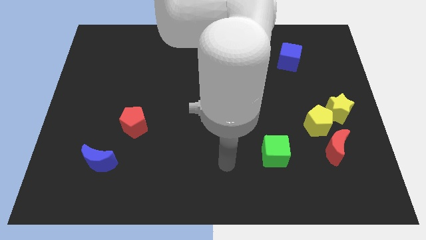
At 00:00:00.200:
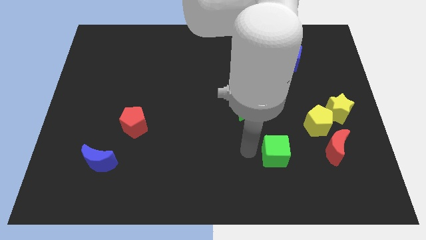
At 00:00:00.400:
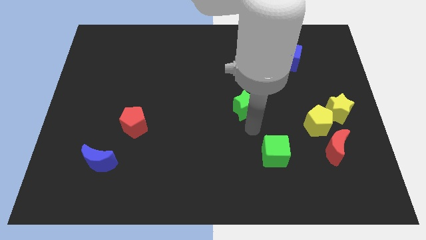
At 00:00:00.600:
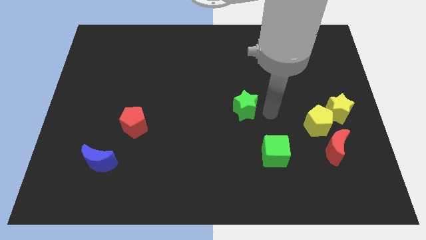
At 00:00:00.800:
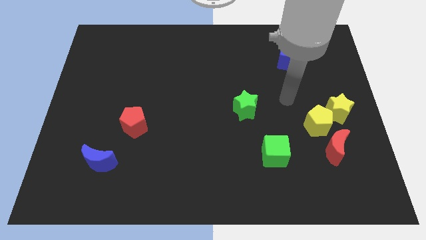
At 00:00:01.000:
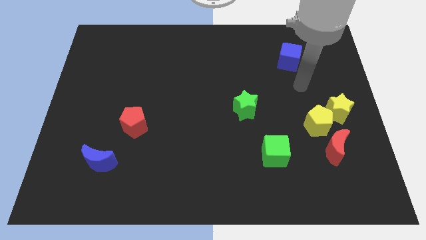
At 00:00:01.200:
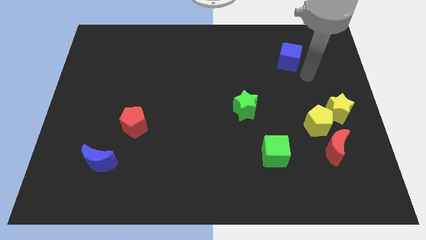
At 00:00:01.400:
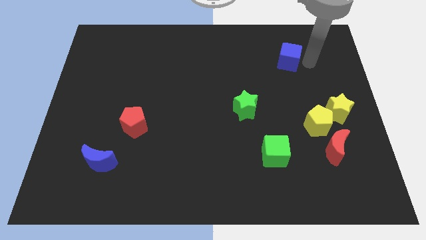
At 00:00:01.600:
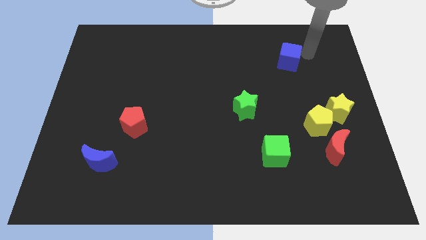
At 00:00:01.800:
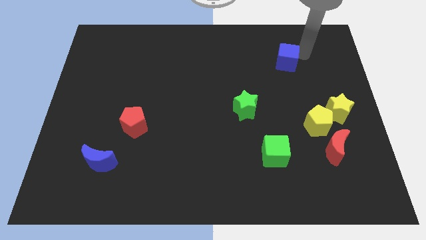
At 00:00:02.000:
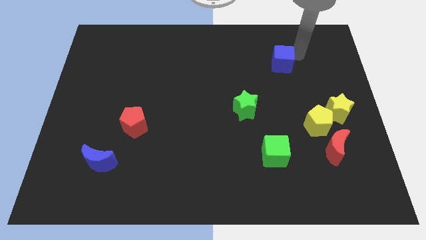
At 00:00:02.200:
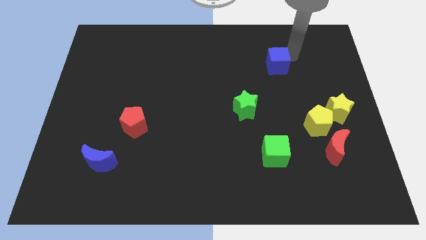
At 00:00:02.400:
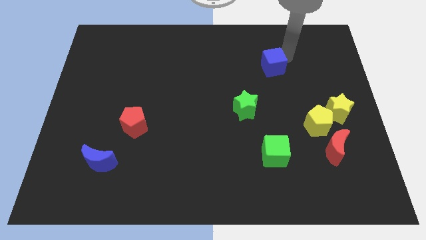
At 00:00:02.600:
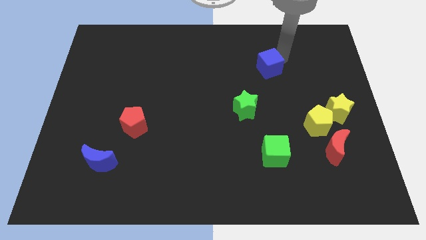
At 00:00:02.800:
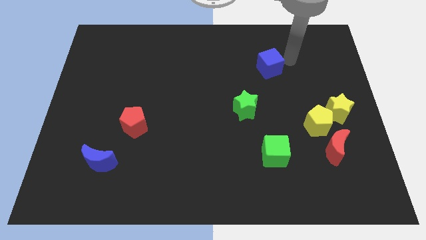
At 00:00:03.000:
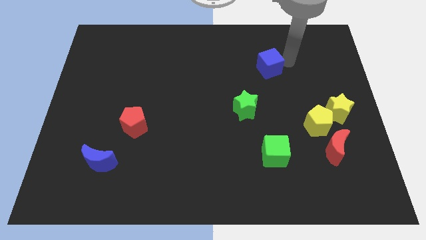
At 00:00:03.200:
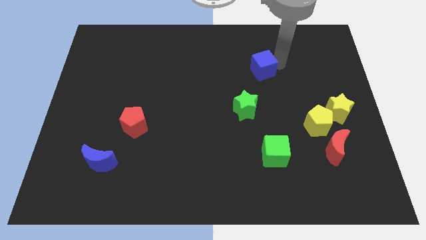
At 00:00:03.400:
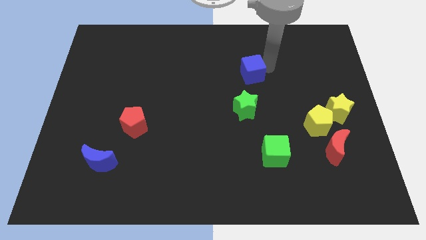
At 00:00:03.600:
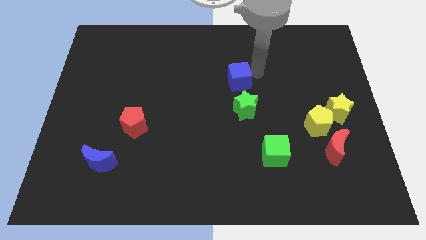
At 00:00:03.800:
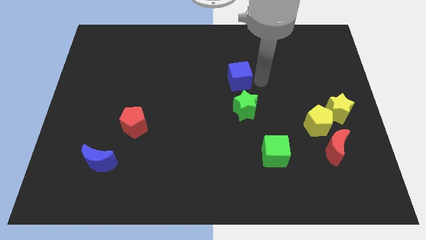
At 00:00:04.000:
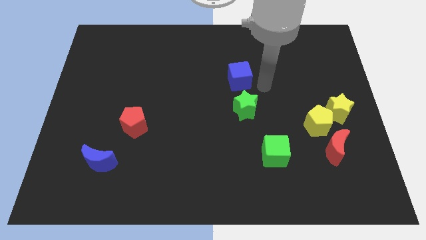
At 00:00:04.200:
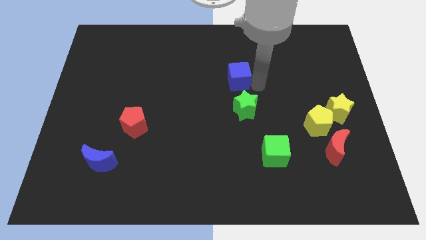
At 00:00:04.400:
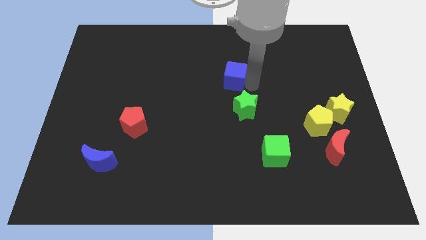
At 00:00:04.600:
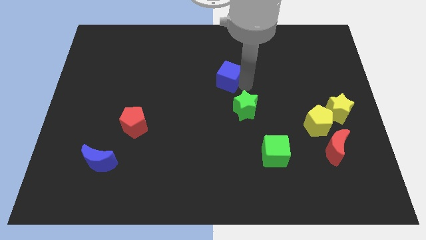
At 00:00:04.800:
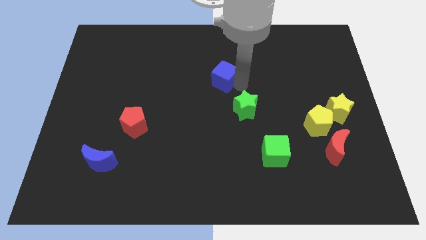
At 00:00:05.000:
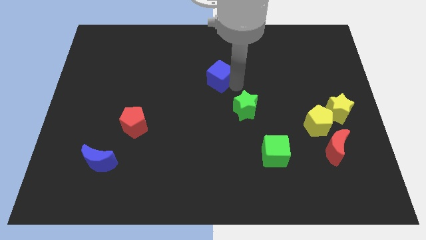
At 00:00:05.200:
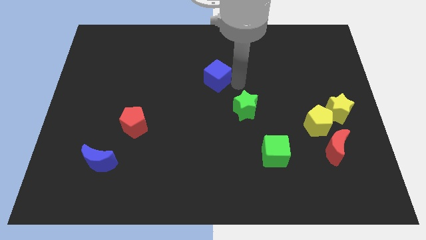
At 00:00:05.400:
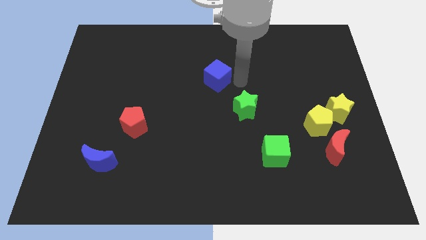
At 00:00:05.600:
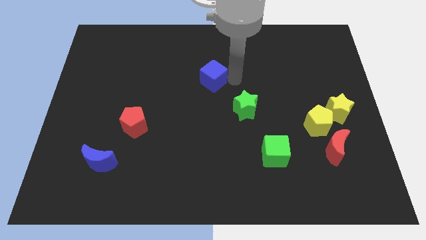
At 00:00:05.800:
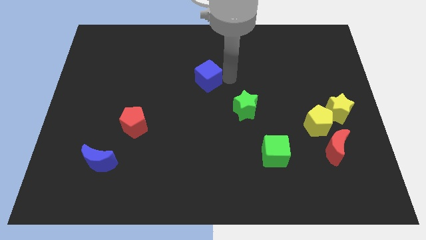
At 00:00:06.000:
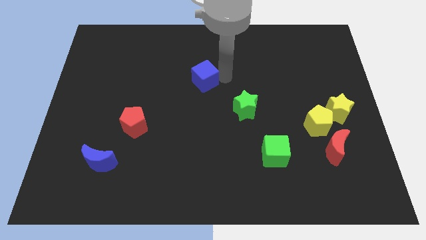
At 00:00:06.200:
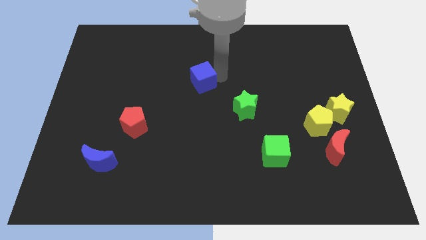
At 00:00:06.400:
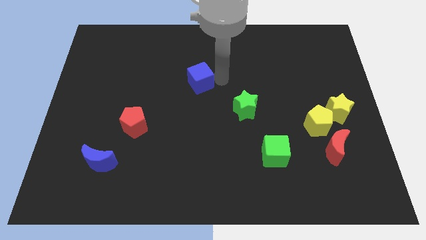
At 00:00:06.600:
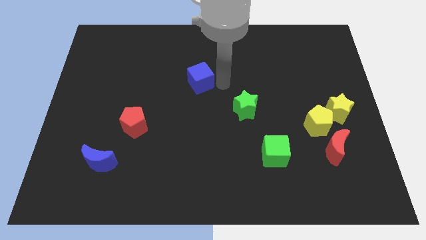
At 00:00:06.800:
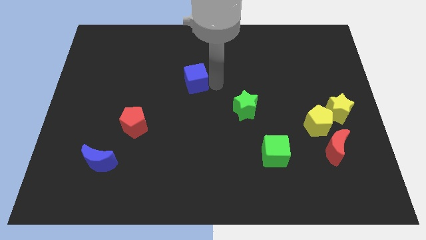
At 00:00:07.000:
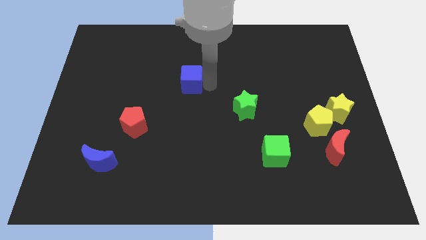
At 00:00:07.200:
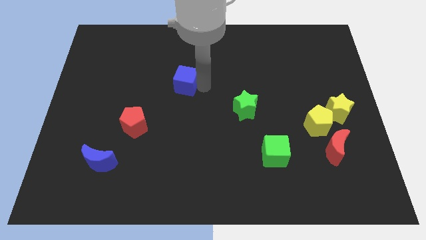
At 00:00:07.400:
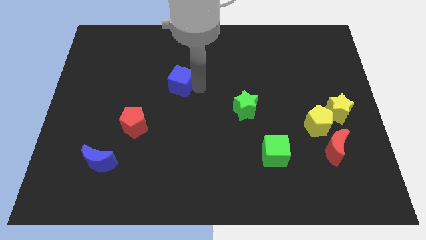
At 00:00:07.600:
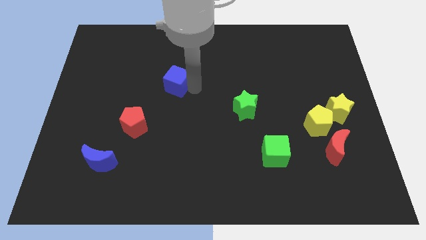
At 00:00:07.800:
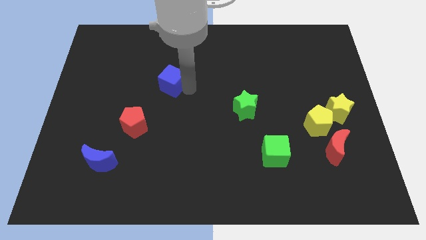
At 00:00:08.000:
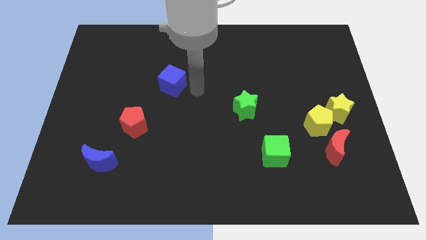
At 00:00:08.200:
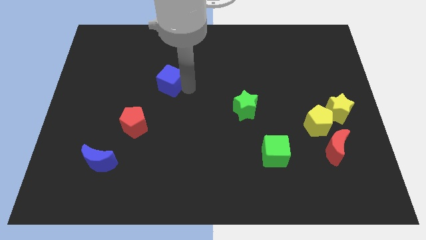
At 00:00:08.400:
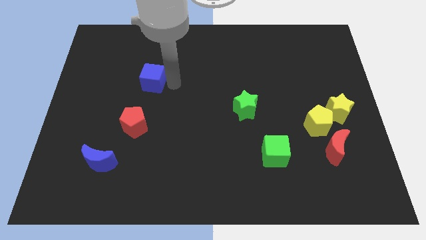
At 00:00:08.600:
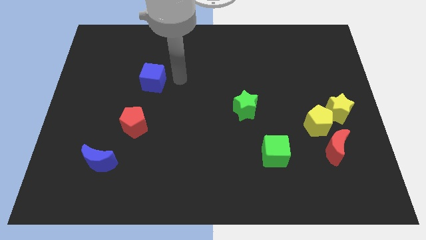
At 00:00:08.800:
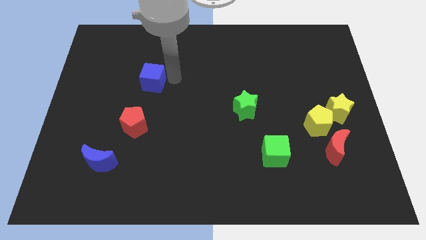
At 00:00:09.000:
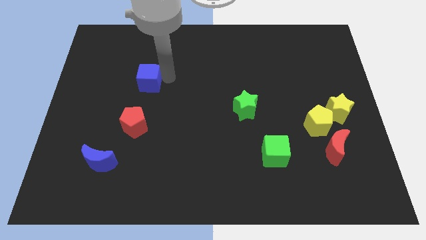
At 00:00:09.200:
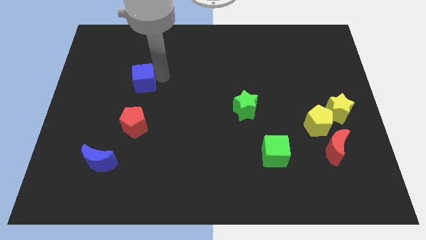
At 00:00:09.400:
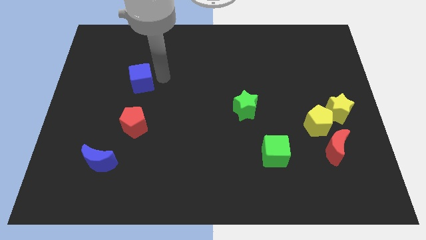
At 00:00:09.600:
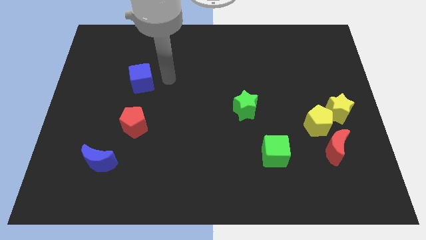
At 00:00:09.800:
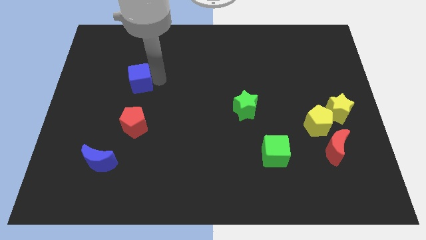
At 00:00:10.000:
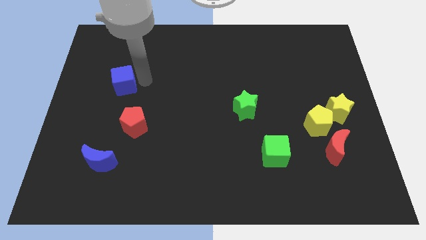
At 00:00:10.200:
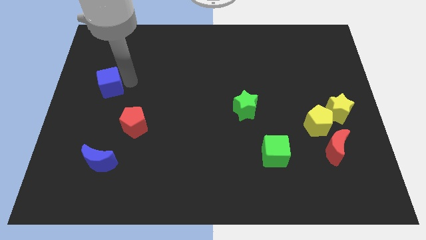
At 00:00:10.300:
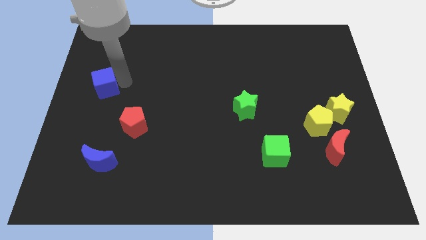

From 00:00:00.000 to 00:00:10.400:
put the blue cube to the left side of the board

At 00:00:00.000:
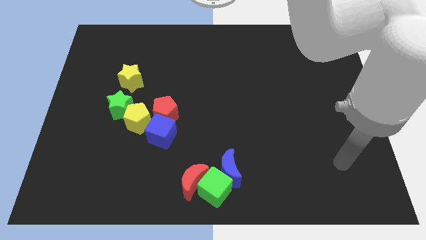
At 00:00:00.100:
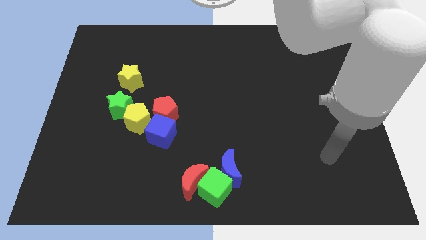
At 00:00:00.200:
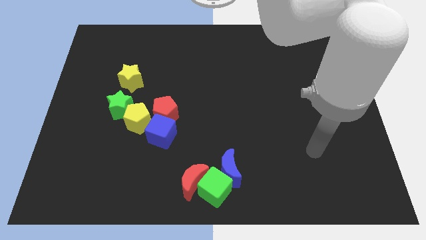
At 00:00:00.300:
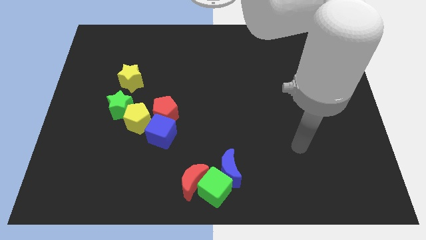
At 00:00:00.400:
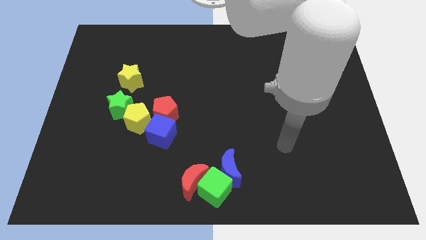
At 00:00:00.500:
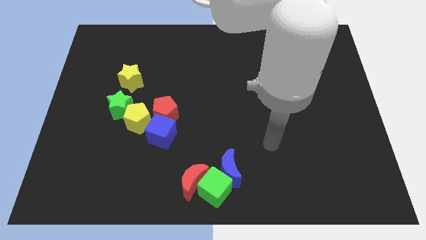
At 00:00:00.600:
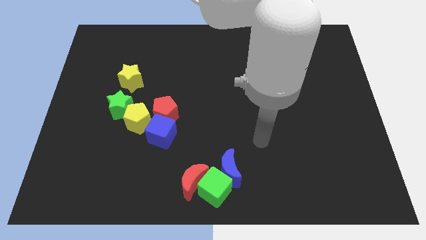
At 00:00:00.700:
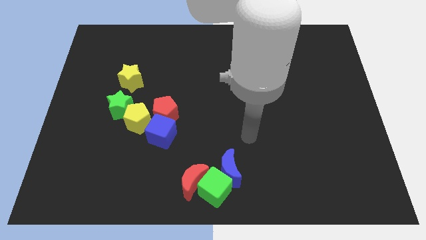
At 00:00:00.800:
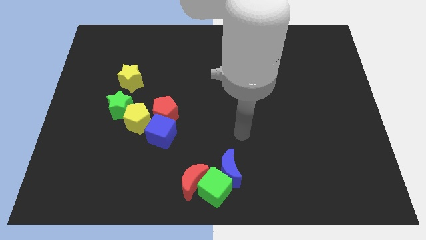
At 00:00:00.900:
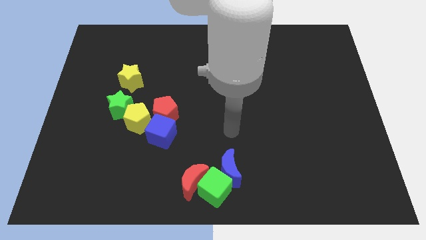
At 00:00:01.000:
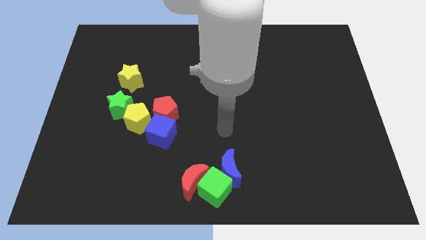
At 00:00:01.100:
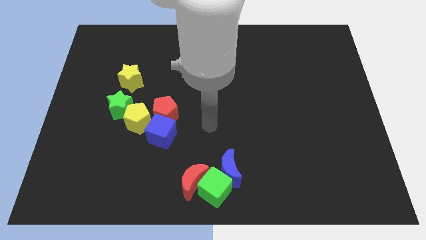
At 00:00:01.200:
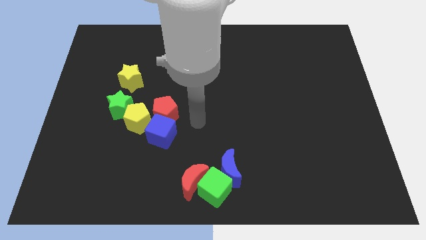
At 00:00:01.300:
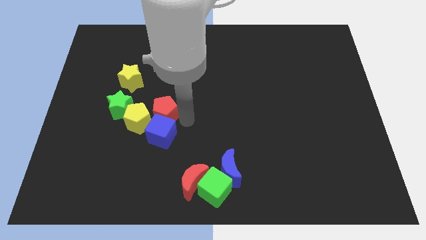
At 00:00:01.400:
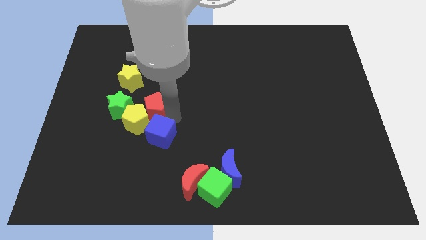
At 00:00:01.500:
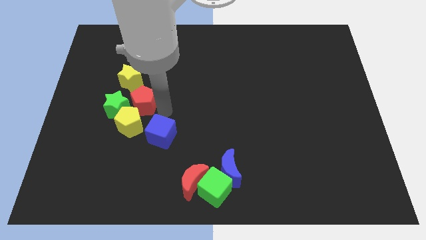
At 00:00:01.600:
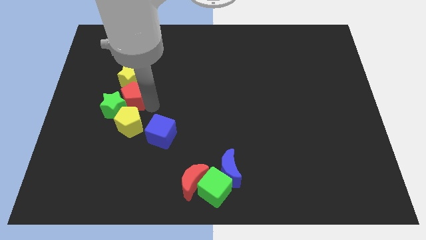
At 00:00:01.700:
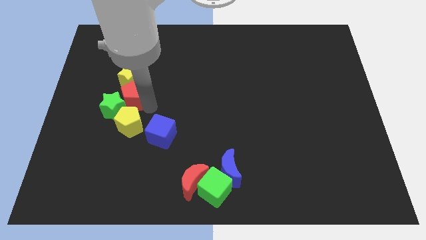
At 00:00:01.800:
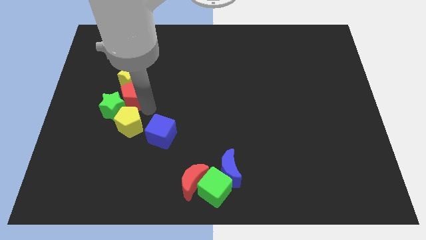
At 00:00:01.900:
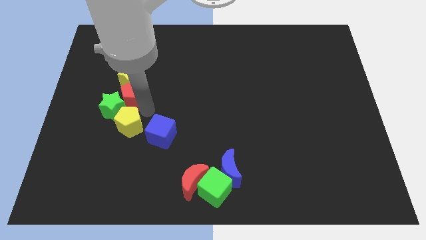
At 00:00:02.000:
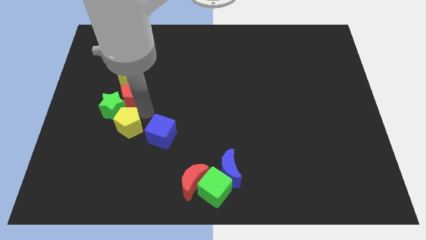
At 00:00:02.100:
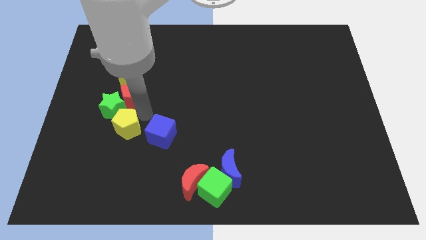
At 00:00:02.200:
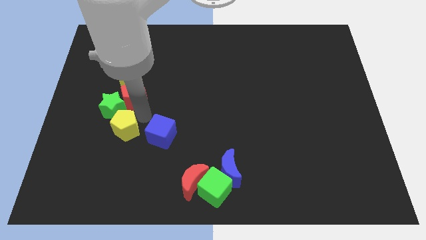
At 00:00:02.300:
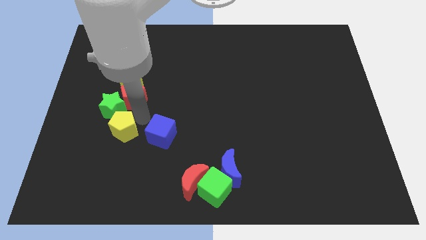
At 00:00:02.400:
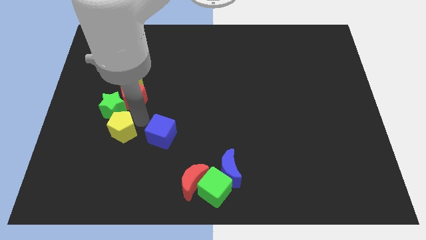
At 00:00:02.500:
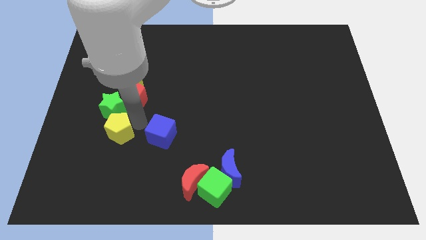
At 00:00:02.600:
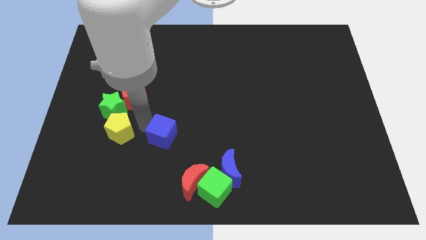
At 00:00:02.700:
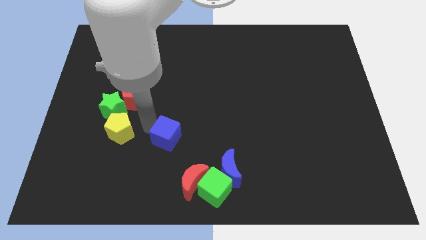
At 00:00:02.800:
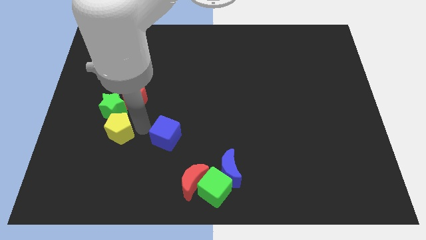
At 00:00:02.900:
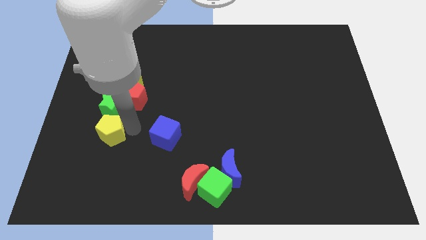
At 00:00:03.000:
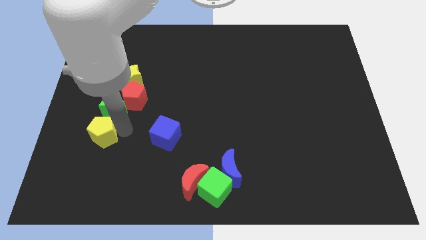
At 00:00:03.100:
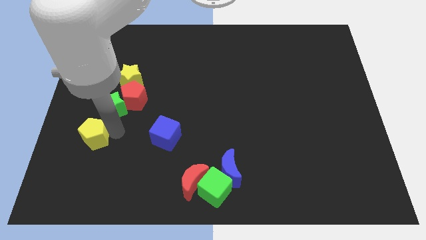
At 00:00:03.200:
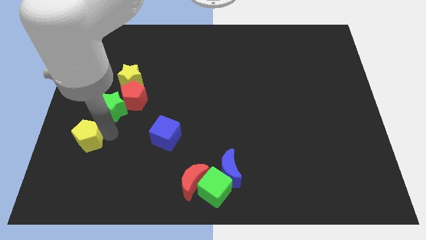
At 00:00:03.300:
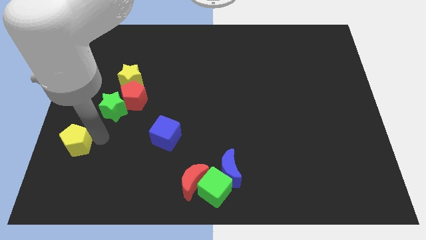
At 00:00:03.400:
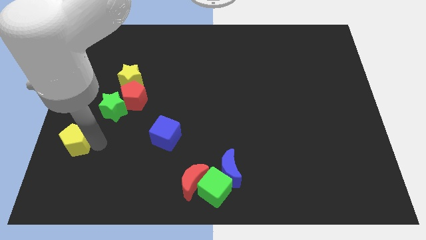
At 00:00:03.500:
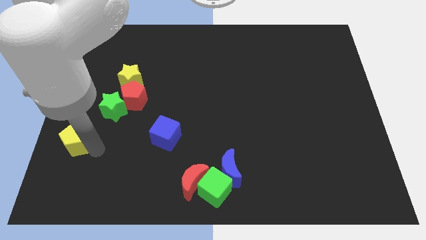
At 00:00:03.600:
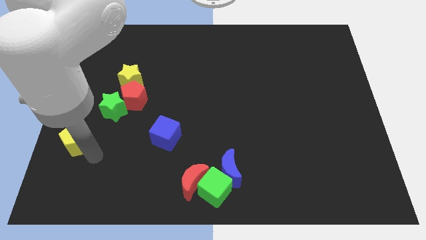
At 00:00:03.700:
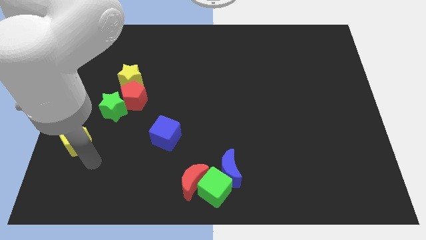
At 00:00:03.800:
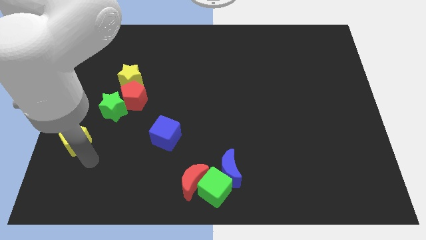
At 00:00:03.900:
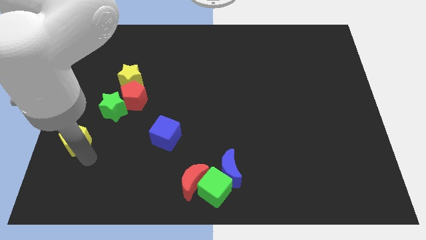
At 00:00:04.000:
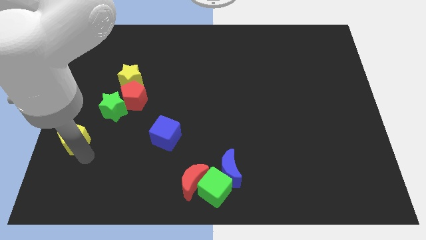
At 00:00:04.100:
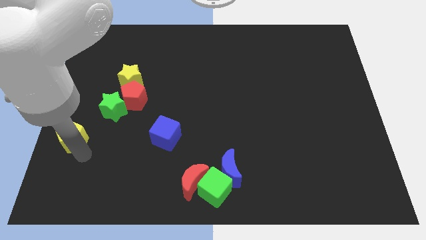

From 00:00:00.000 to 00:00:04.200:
move the yellow pentagon to the center left
